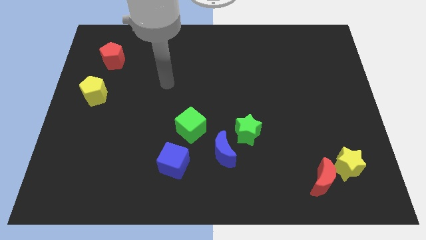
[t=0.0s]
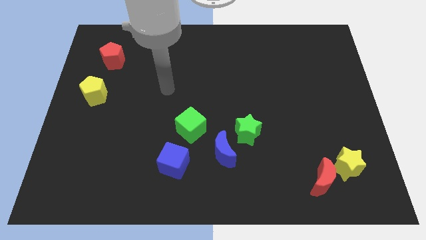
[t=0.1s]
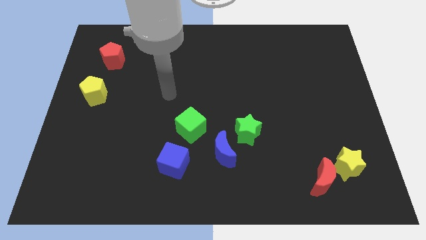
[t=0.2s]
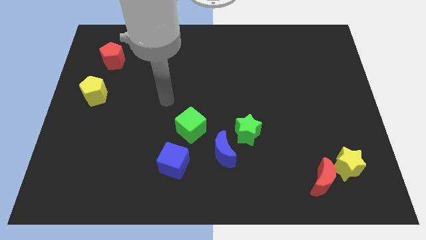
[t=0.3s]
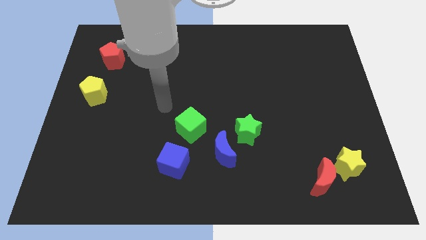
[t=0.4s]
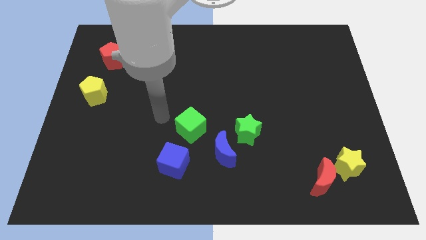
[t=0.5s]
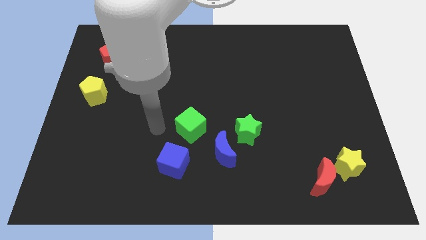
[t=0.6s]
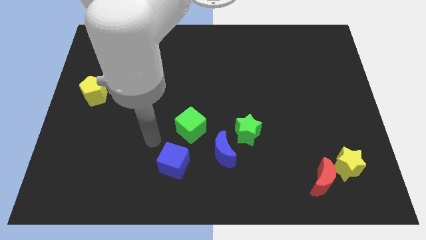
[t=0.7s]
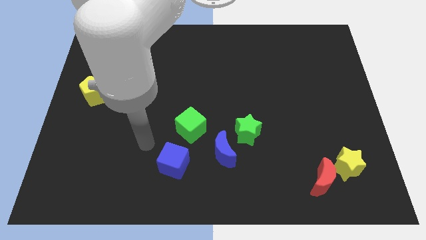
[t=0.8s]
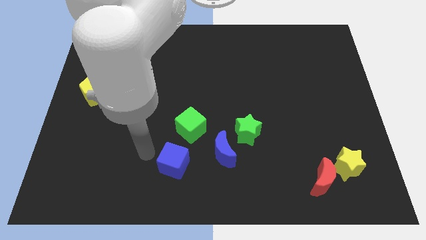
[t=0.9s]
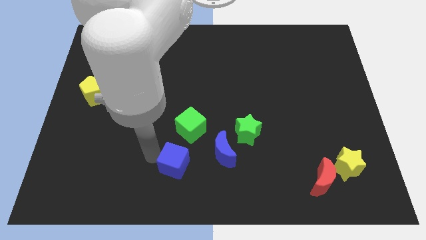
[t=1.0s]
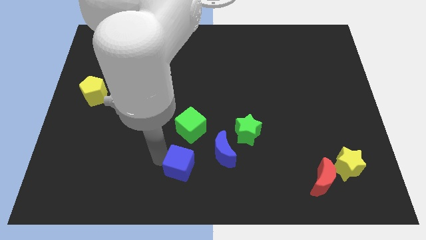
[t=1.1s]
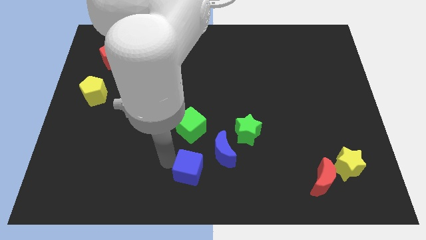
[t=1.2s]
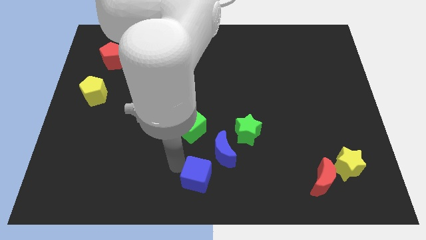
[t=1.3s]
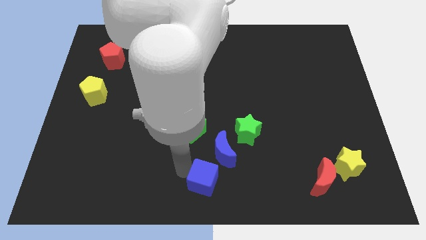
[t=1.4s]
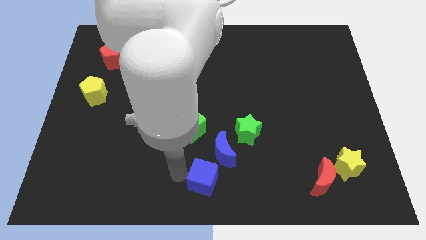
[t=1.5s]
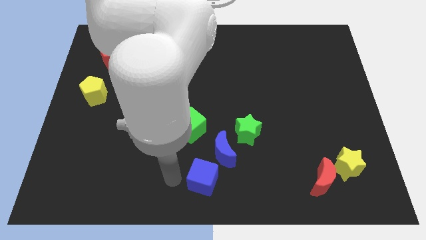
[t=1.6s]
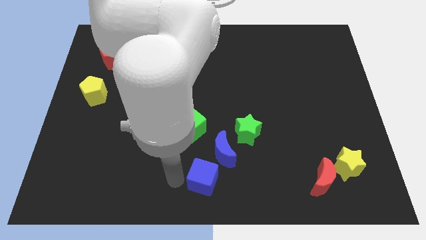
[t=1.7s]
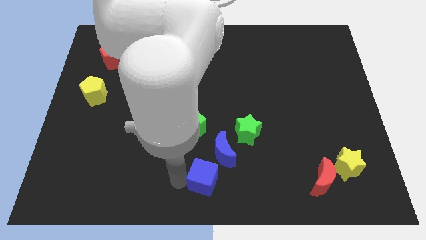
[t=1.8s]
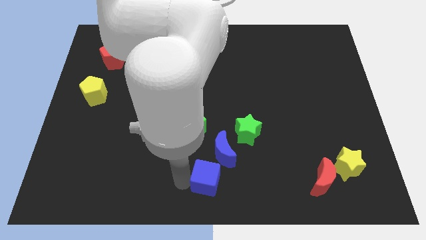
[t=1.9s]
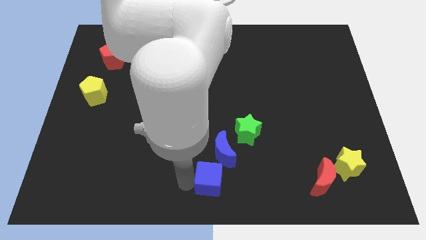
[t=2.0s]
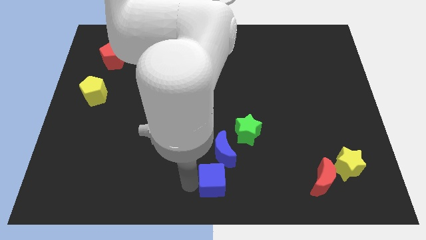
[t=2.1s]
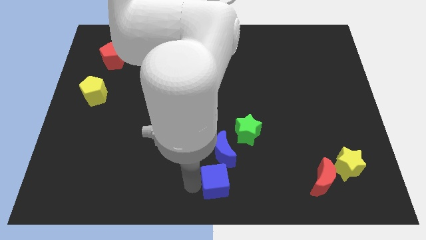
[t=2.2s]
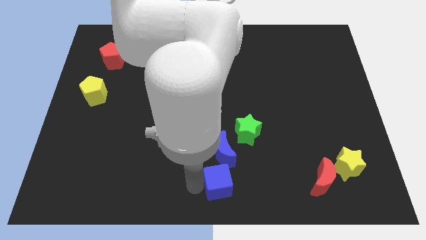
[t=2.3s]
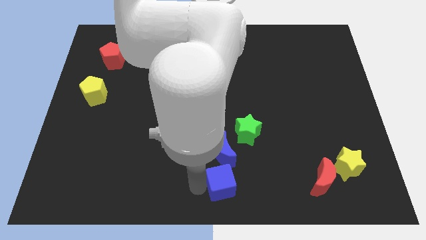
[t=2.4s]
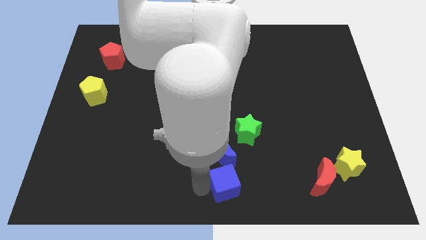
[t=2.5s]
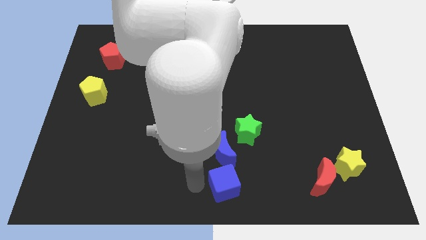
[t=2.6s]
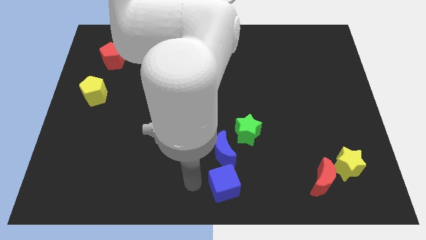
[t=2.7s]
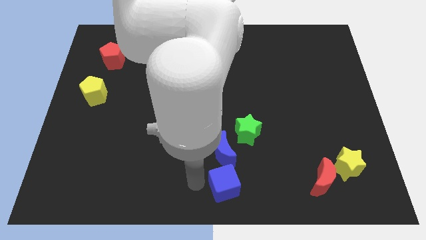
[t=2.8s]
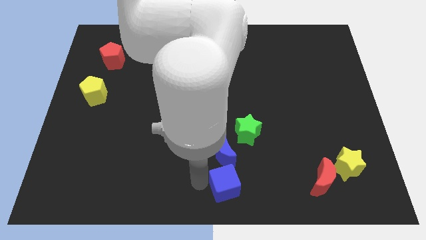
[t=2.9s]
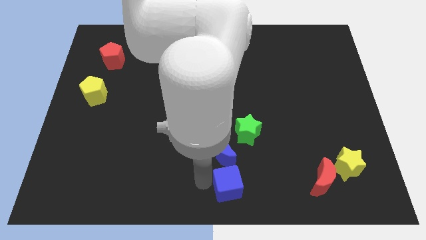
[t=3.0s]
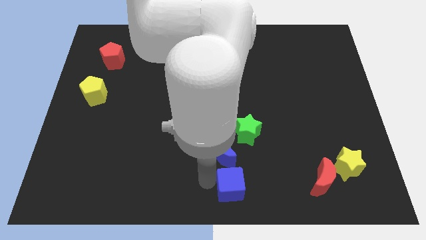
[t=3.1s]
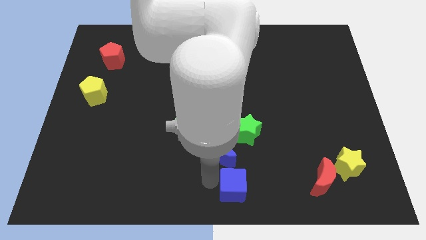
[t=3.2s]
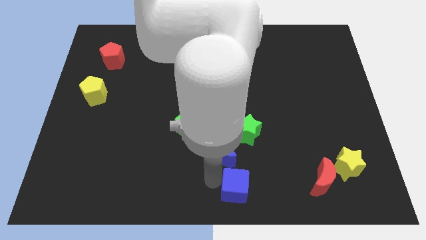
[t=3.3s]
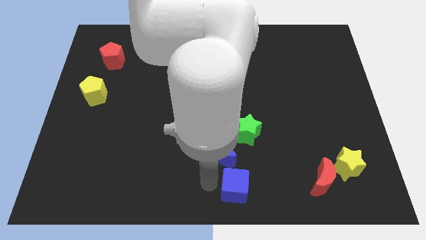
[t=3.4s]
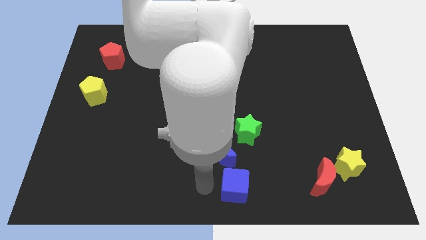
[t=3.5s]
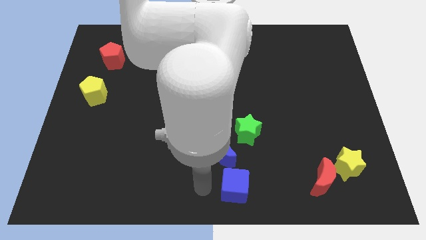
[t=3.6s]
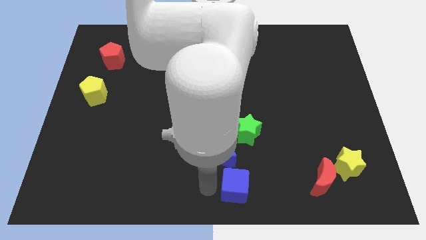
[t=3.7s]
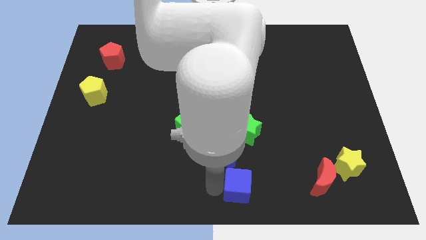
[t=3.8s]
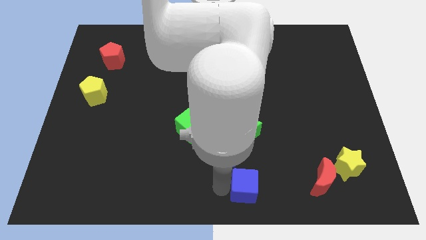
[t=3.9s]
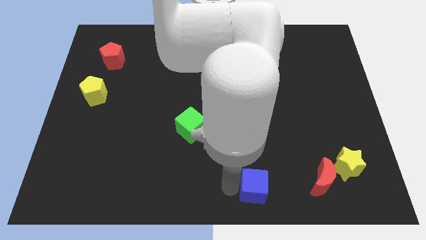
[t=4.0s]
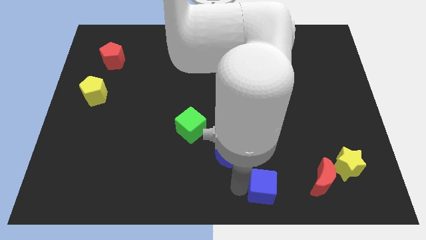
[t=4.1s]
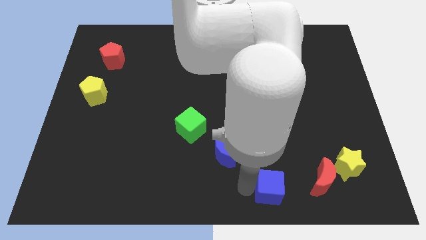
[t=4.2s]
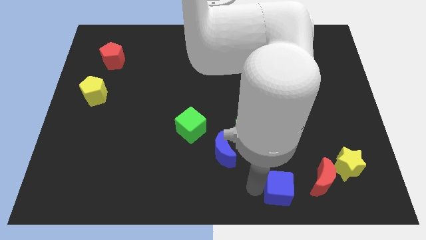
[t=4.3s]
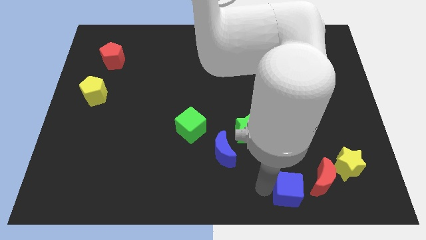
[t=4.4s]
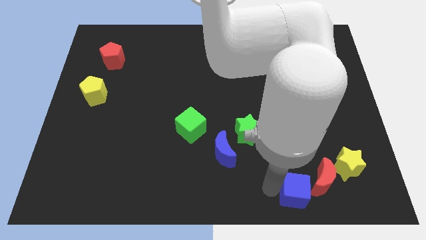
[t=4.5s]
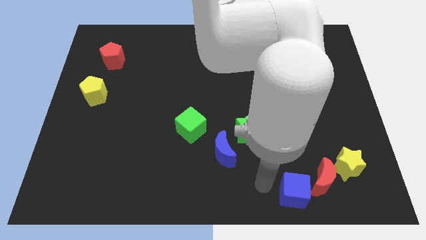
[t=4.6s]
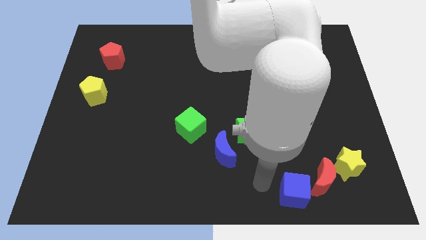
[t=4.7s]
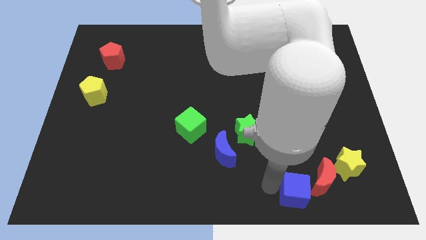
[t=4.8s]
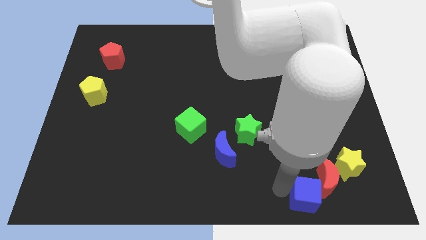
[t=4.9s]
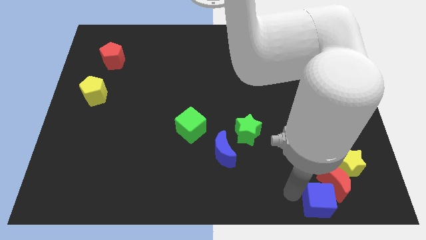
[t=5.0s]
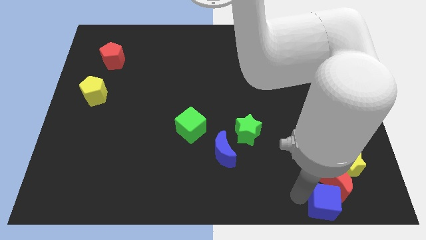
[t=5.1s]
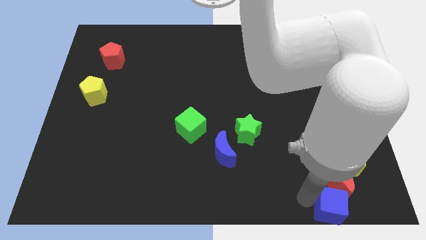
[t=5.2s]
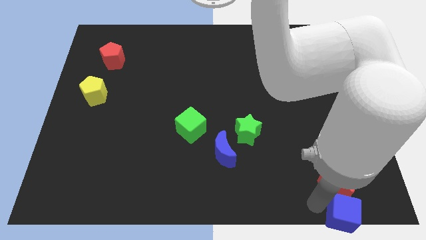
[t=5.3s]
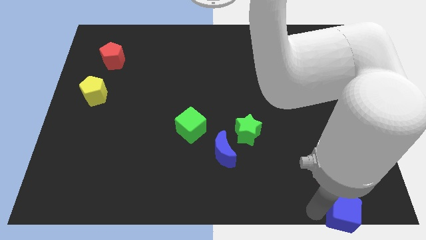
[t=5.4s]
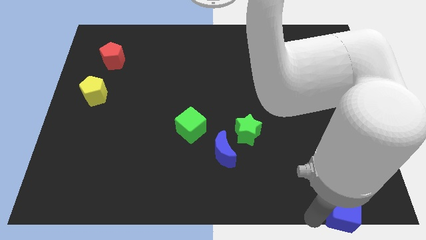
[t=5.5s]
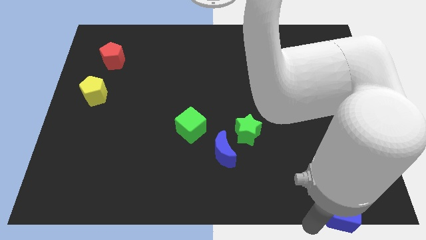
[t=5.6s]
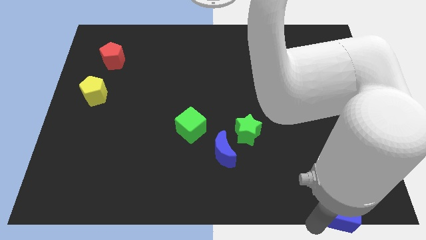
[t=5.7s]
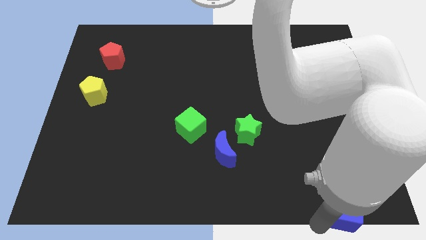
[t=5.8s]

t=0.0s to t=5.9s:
slide the blue cube to the bottom right corner

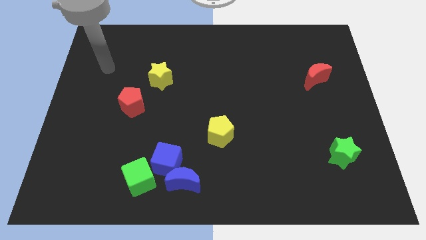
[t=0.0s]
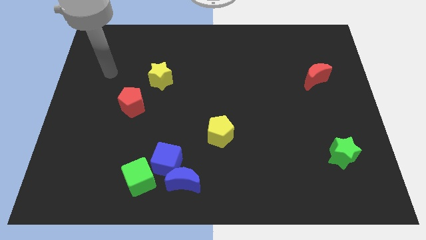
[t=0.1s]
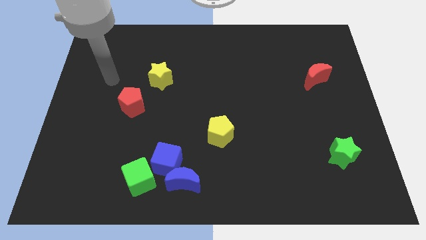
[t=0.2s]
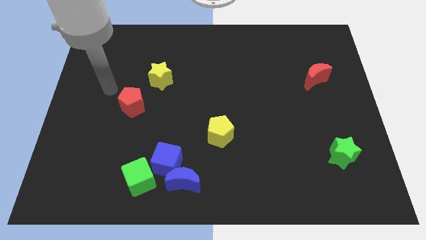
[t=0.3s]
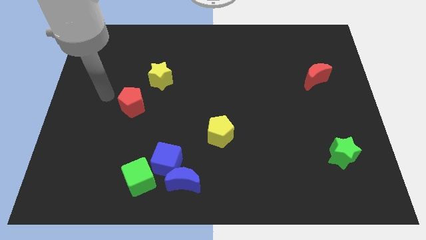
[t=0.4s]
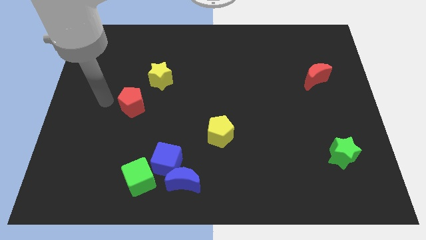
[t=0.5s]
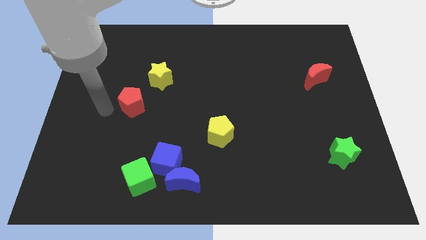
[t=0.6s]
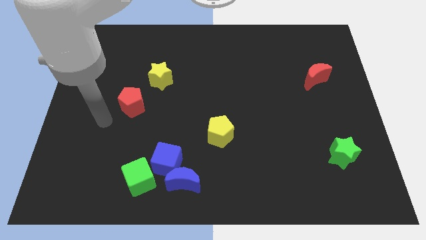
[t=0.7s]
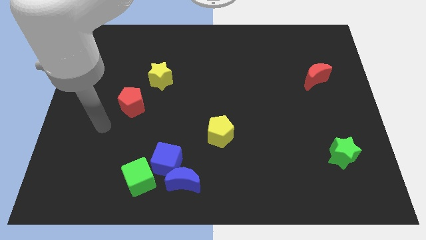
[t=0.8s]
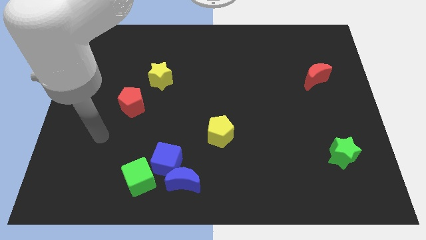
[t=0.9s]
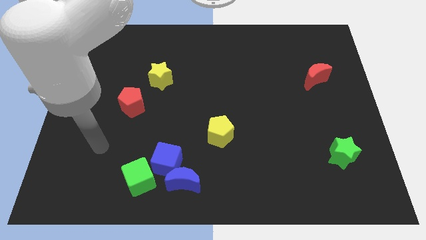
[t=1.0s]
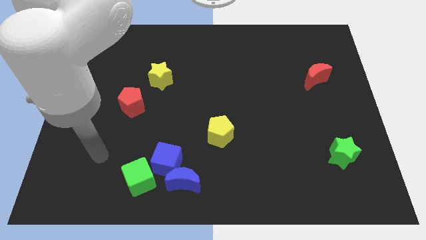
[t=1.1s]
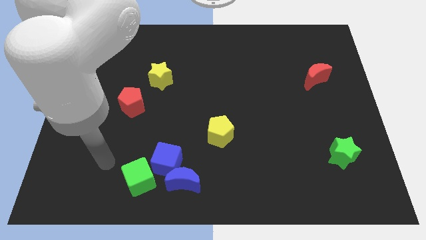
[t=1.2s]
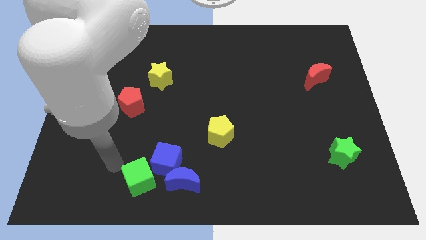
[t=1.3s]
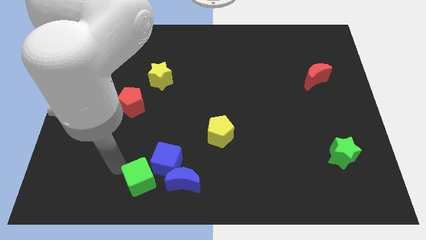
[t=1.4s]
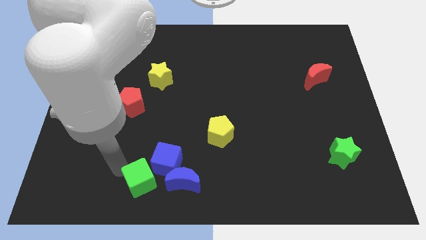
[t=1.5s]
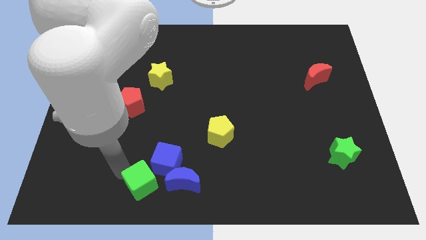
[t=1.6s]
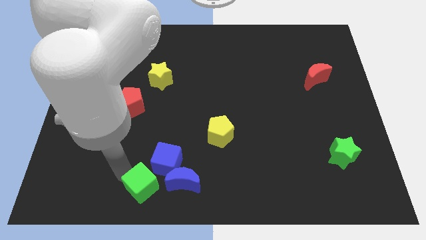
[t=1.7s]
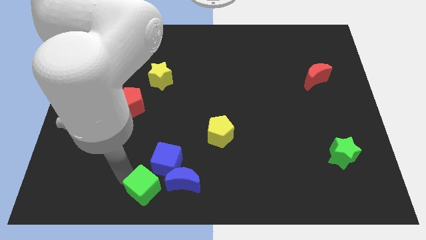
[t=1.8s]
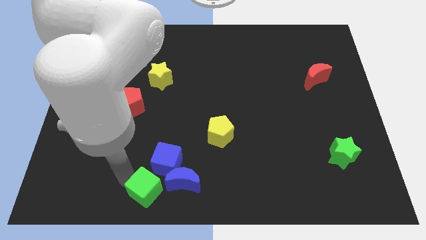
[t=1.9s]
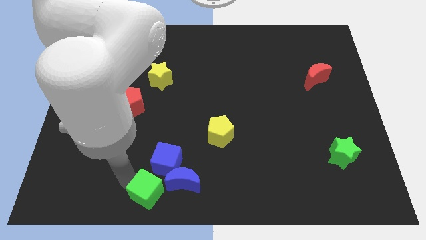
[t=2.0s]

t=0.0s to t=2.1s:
push the green cube to the bottom side
